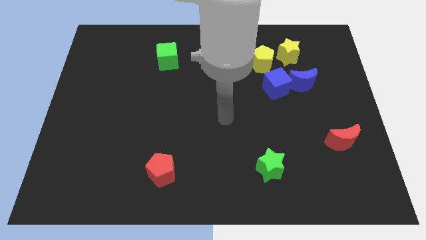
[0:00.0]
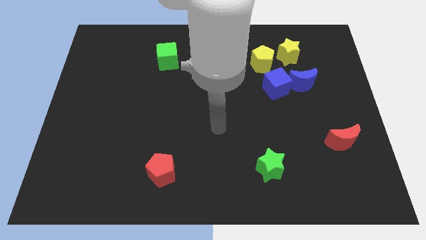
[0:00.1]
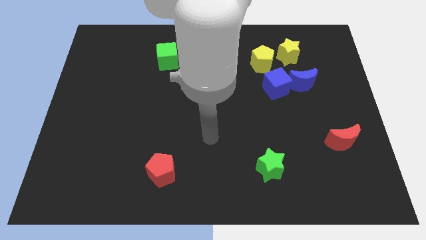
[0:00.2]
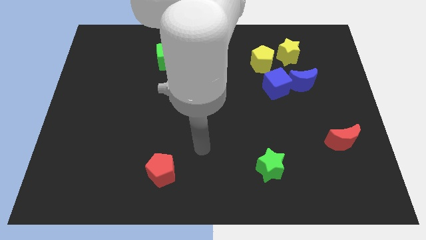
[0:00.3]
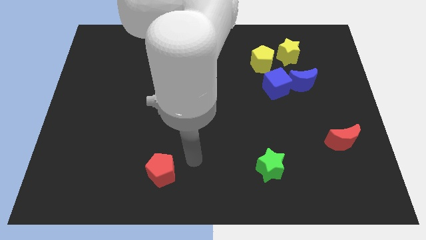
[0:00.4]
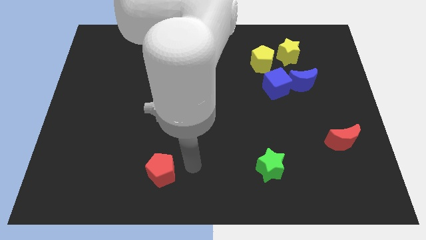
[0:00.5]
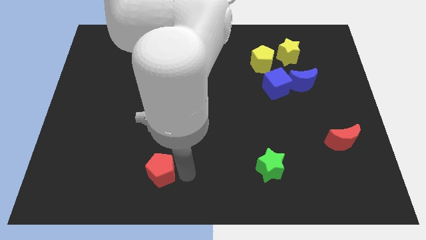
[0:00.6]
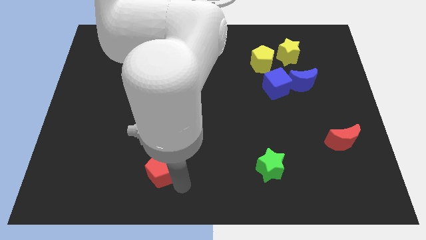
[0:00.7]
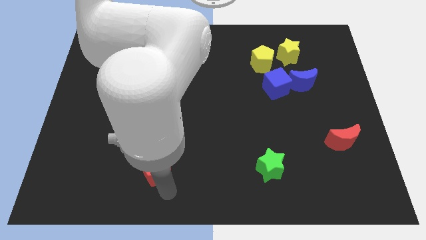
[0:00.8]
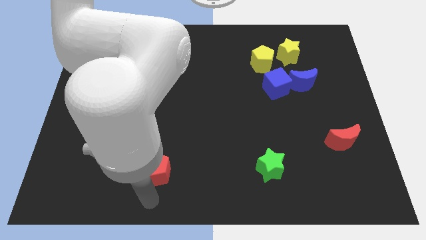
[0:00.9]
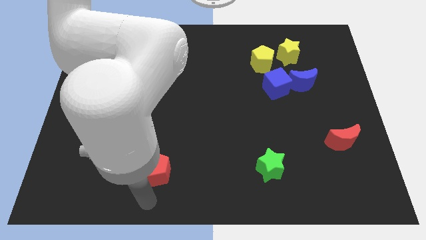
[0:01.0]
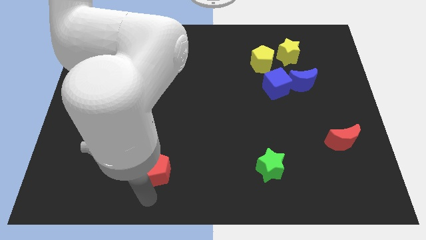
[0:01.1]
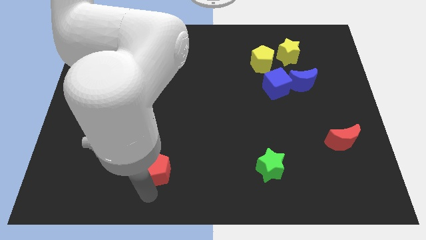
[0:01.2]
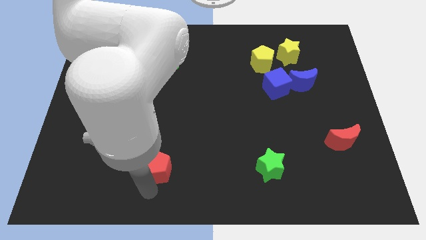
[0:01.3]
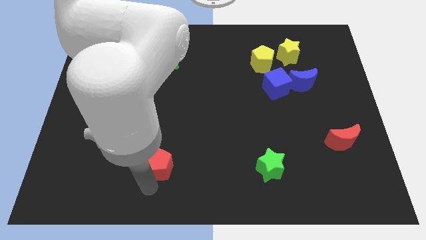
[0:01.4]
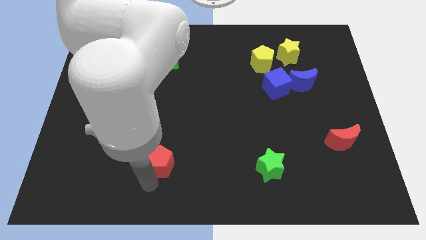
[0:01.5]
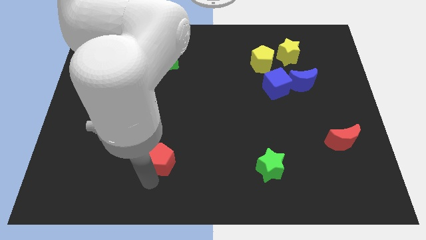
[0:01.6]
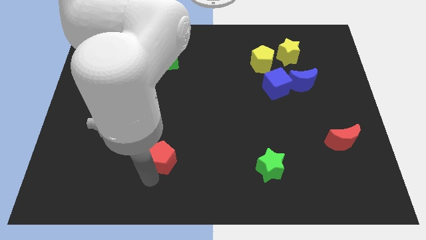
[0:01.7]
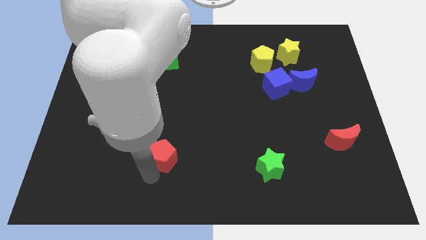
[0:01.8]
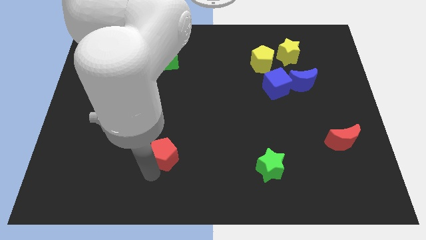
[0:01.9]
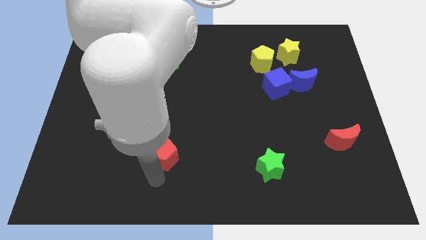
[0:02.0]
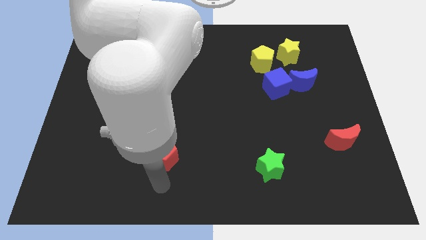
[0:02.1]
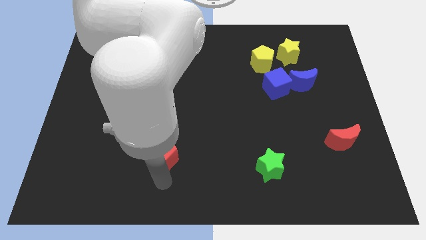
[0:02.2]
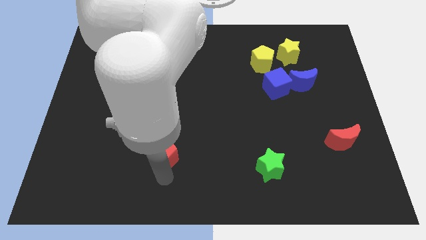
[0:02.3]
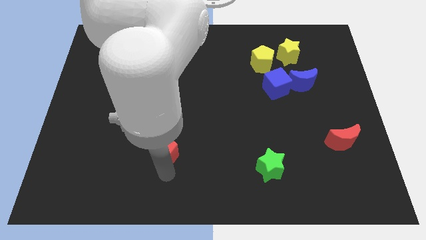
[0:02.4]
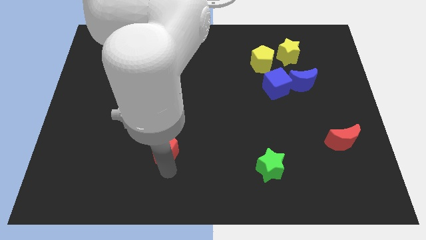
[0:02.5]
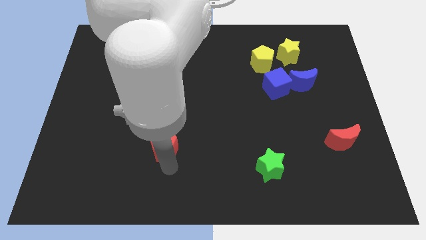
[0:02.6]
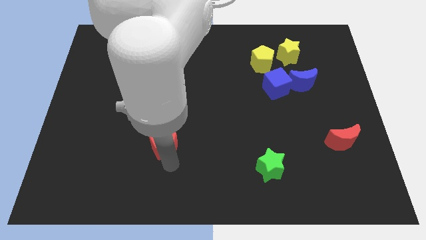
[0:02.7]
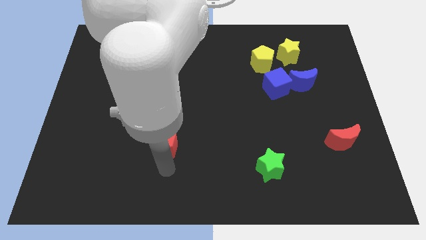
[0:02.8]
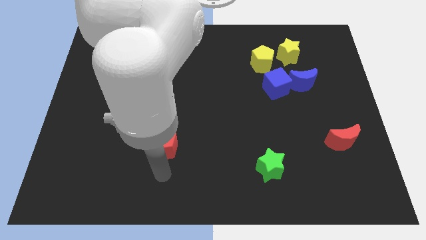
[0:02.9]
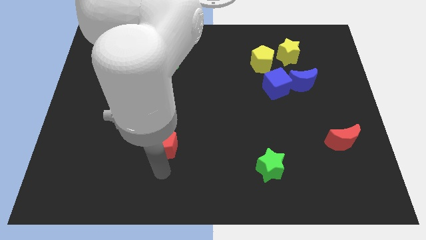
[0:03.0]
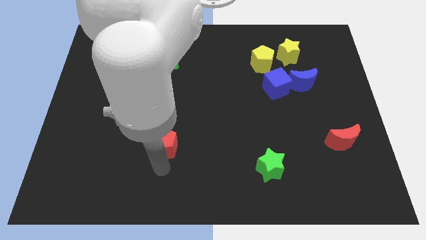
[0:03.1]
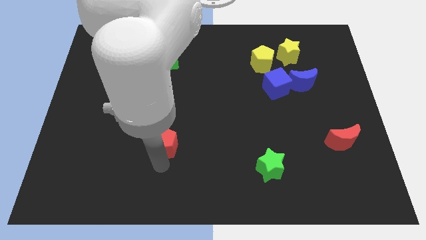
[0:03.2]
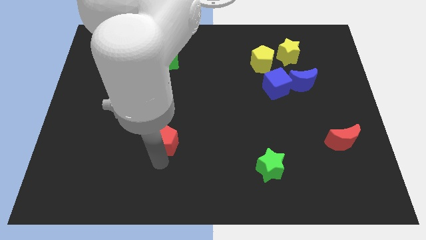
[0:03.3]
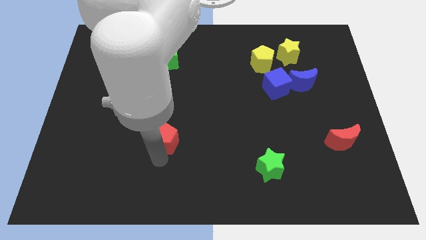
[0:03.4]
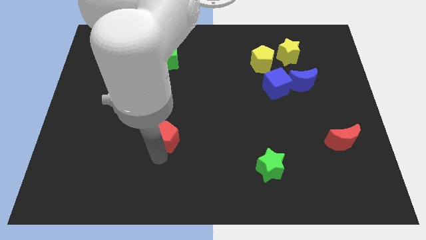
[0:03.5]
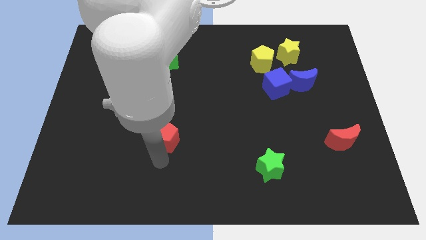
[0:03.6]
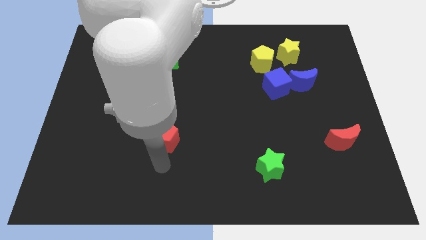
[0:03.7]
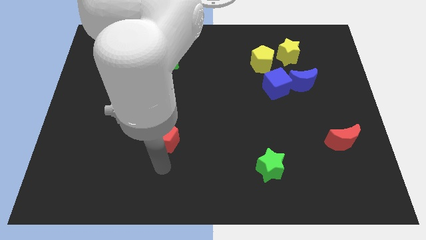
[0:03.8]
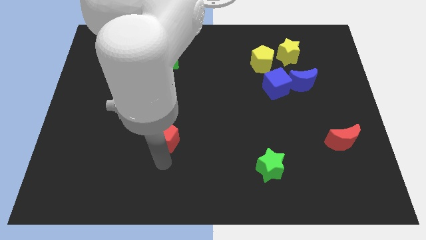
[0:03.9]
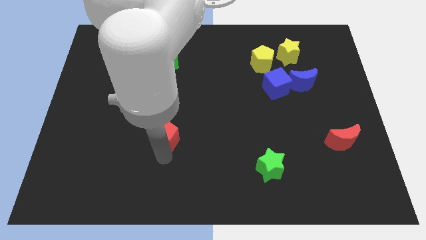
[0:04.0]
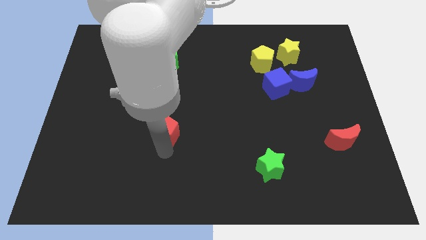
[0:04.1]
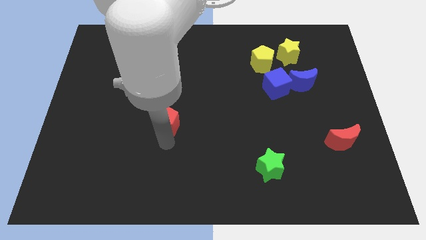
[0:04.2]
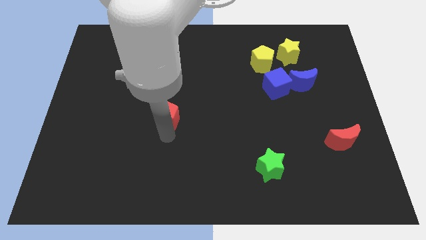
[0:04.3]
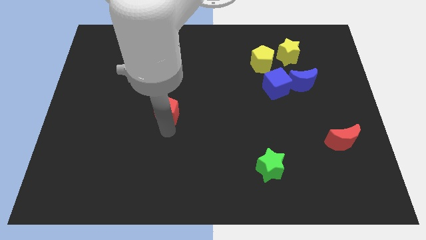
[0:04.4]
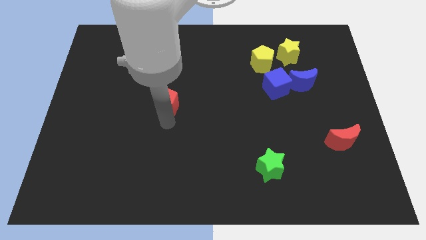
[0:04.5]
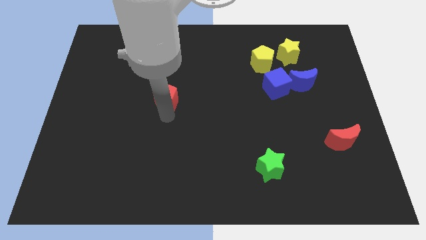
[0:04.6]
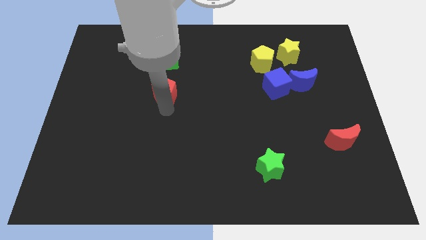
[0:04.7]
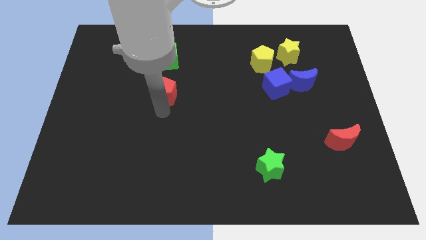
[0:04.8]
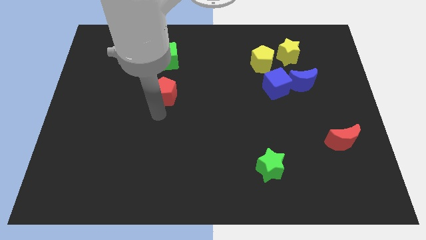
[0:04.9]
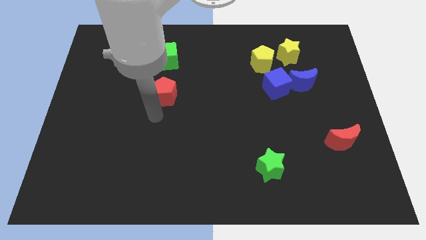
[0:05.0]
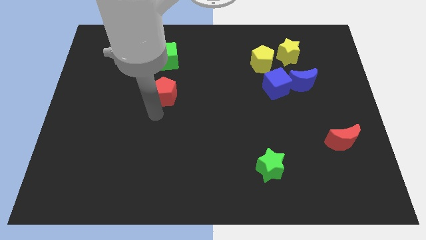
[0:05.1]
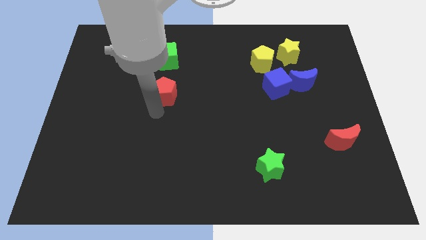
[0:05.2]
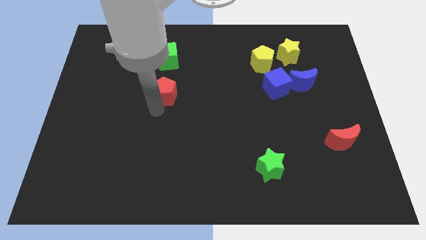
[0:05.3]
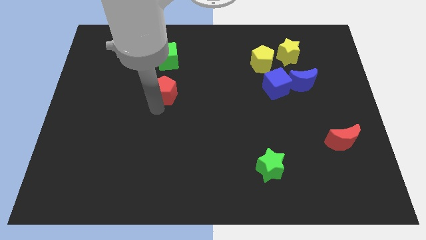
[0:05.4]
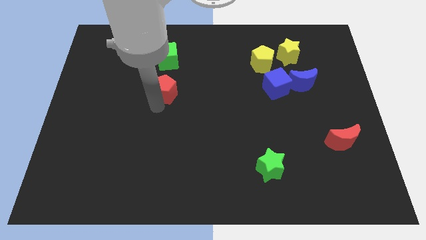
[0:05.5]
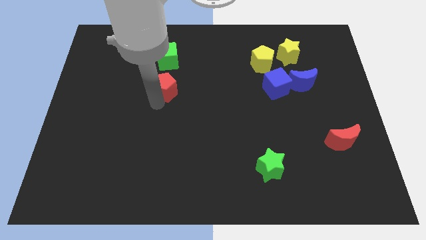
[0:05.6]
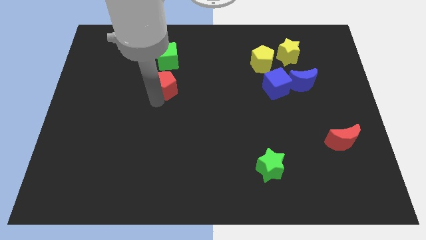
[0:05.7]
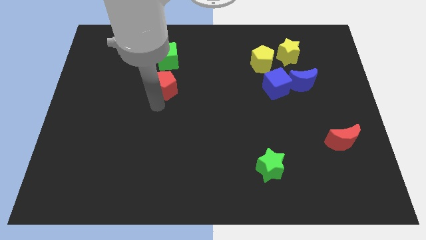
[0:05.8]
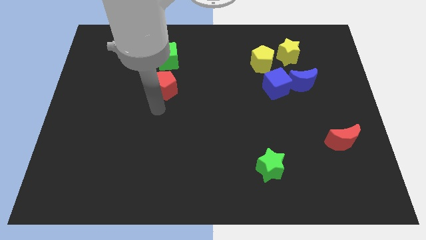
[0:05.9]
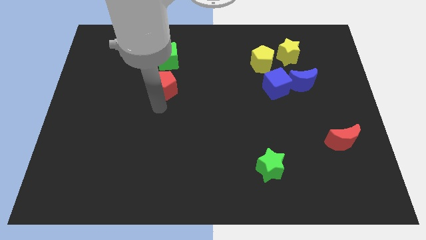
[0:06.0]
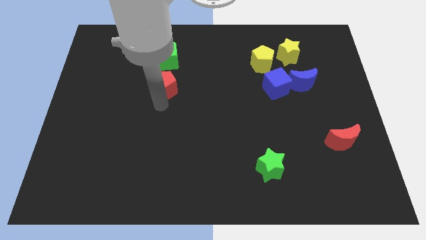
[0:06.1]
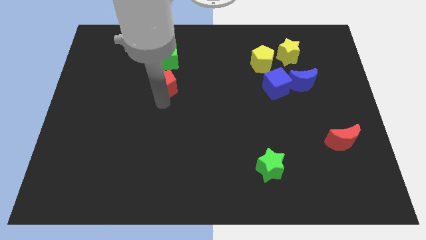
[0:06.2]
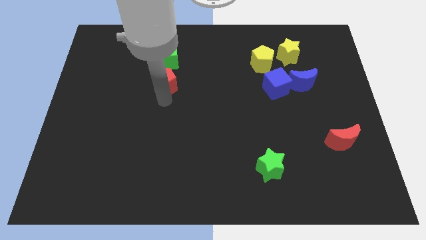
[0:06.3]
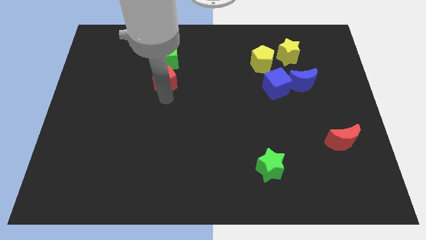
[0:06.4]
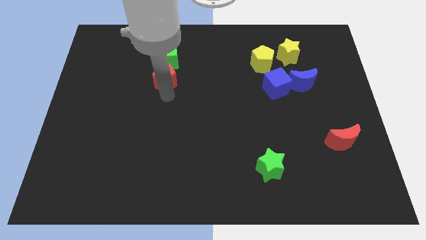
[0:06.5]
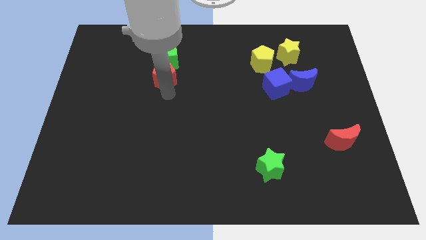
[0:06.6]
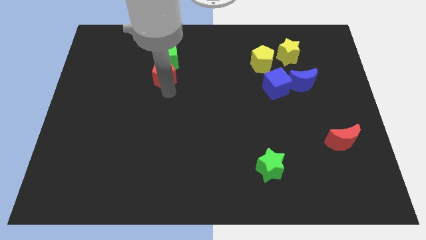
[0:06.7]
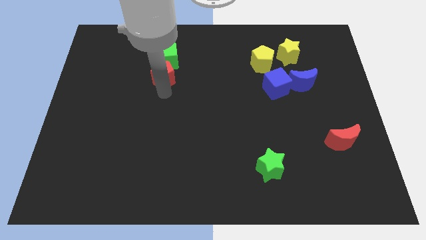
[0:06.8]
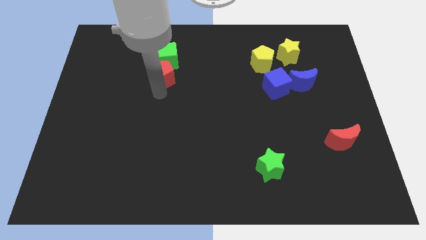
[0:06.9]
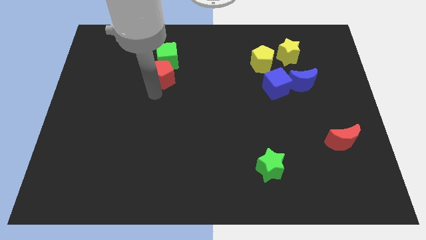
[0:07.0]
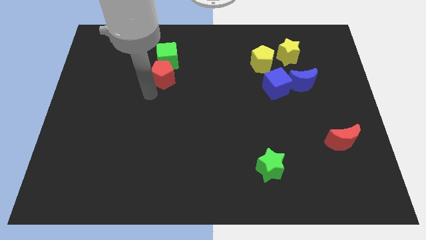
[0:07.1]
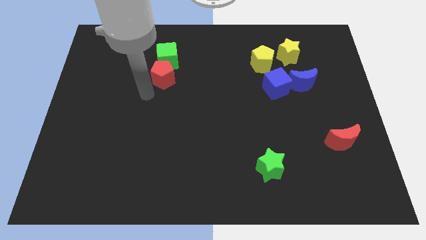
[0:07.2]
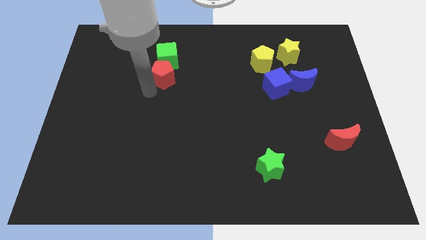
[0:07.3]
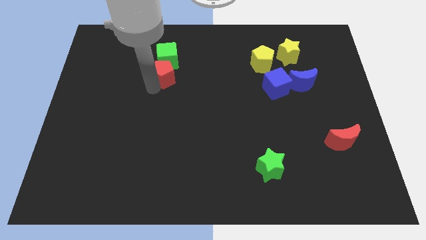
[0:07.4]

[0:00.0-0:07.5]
move the red pentagon towards the green cube

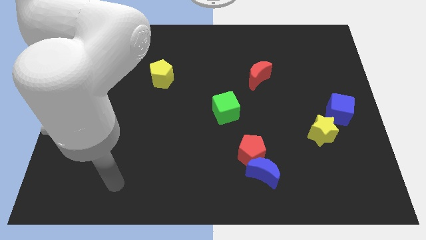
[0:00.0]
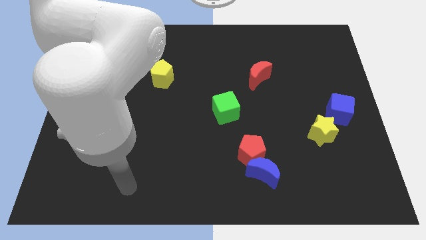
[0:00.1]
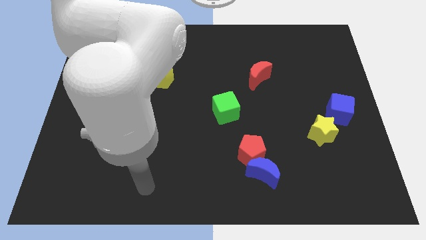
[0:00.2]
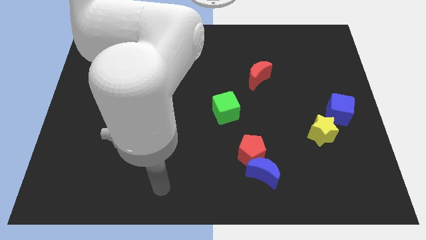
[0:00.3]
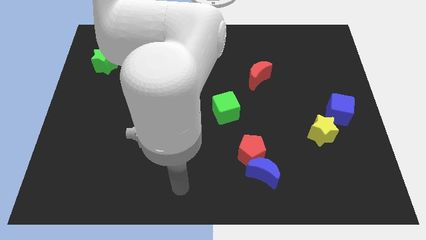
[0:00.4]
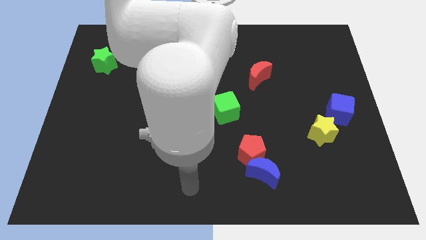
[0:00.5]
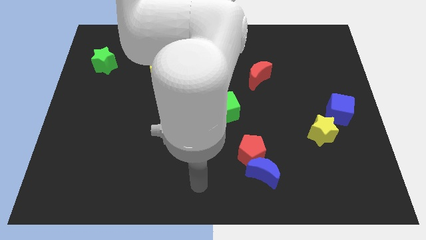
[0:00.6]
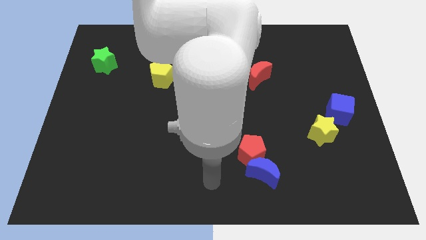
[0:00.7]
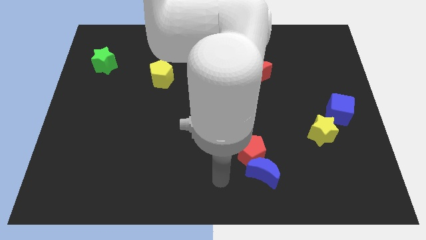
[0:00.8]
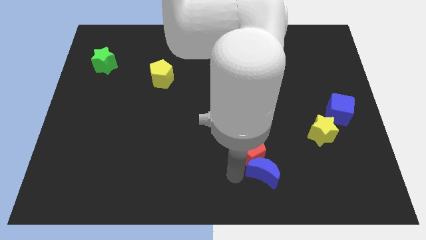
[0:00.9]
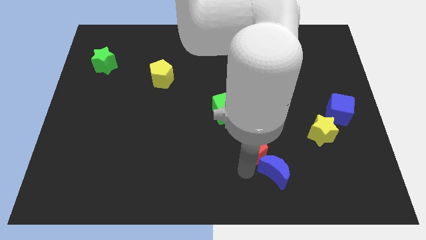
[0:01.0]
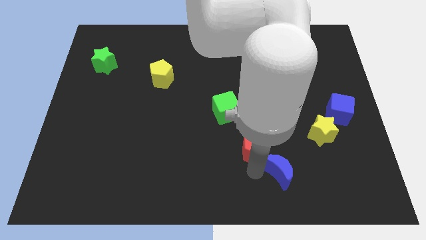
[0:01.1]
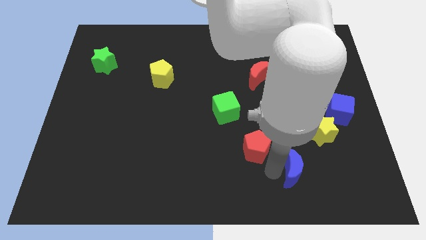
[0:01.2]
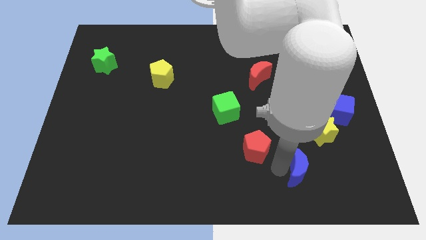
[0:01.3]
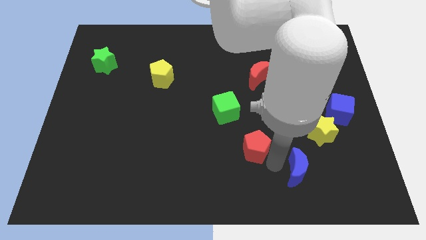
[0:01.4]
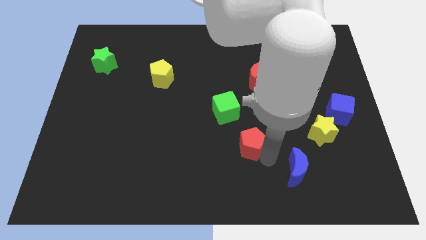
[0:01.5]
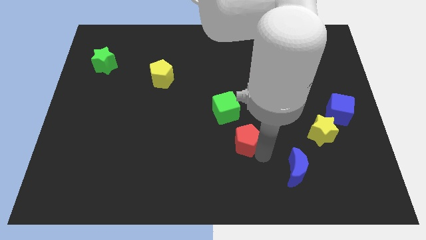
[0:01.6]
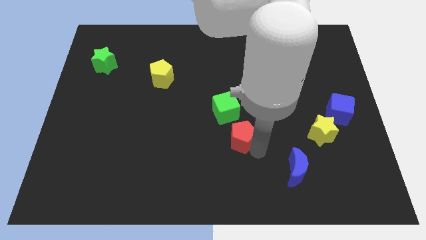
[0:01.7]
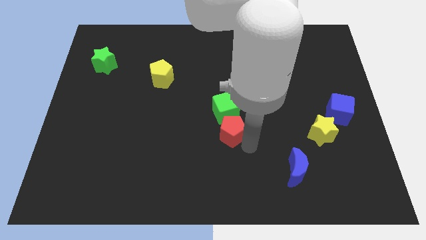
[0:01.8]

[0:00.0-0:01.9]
push the red pentagon to the green cube
